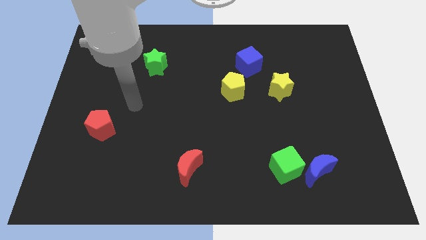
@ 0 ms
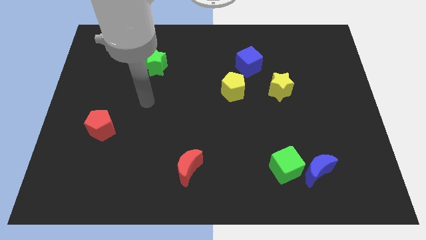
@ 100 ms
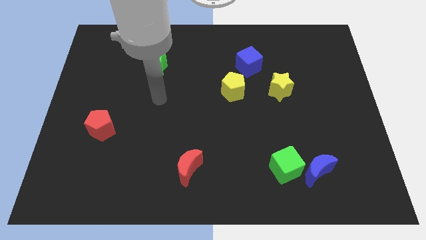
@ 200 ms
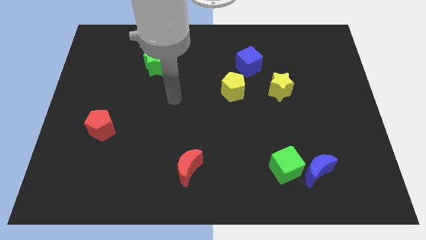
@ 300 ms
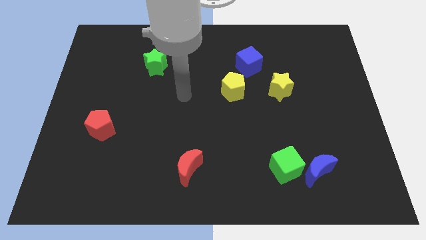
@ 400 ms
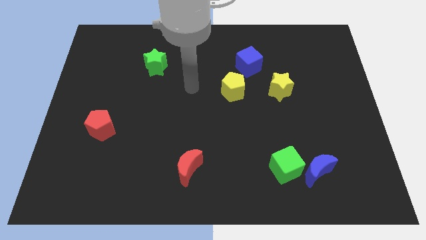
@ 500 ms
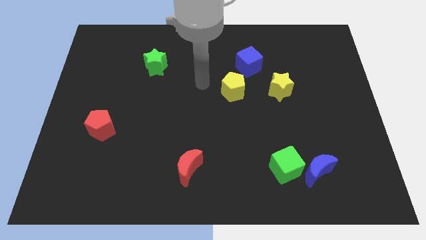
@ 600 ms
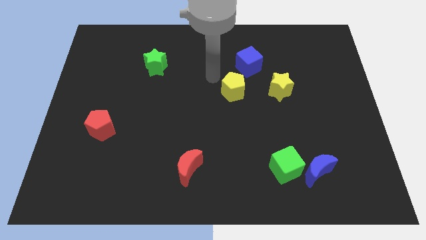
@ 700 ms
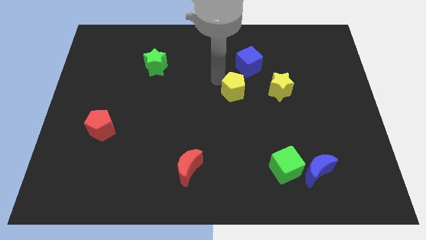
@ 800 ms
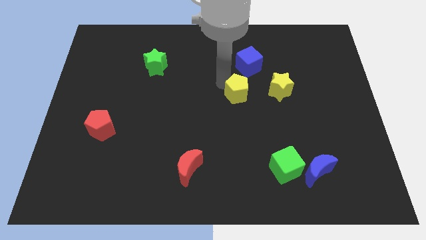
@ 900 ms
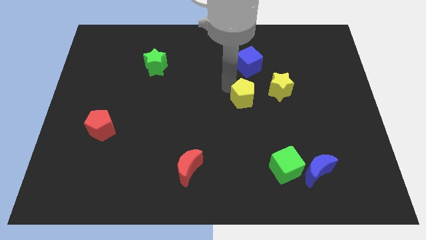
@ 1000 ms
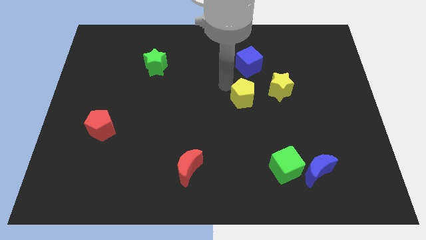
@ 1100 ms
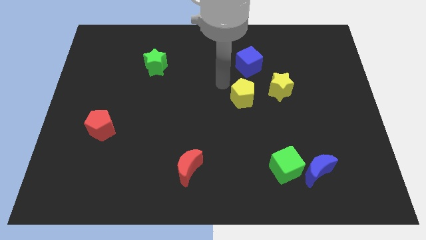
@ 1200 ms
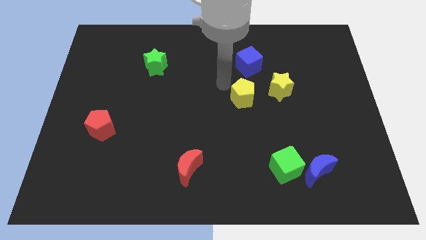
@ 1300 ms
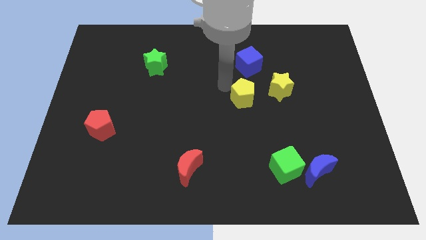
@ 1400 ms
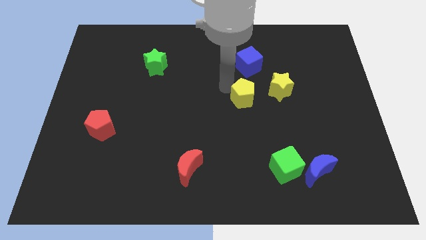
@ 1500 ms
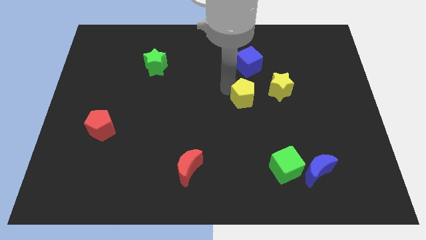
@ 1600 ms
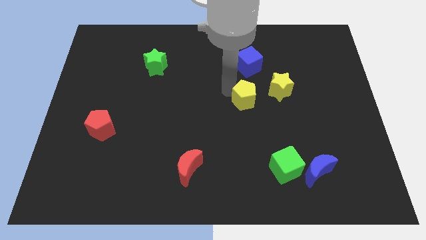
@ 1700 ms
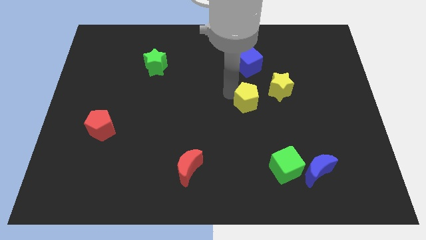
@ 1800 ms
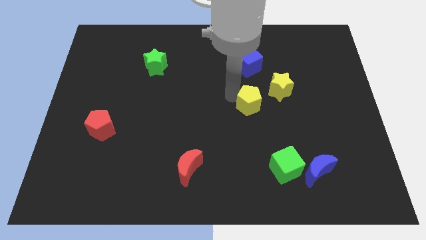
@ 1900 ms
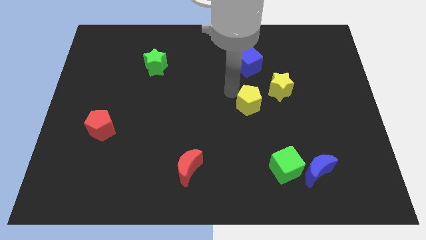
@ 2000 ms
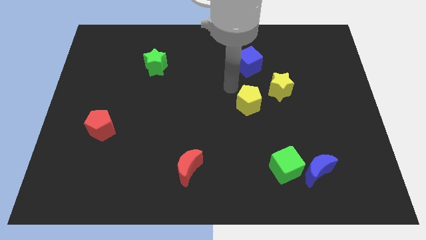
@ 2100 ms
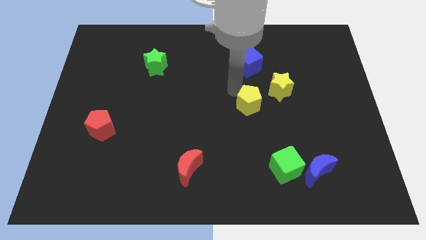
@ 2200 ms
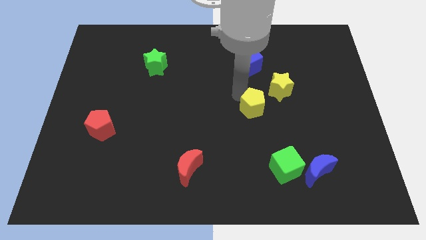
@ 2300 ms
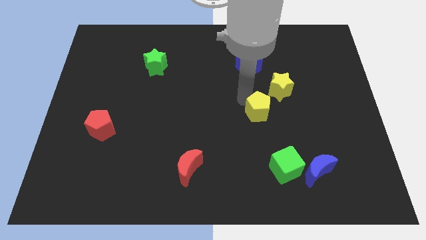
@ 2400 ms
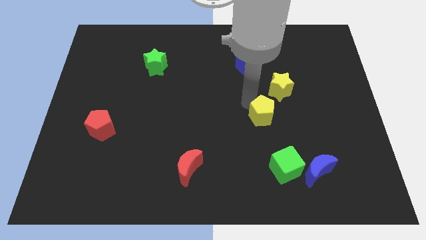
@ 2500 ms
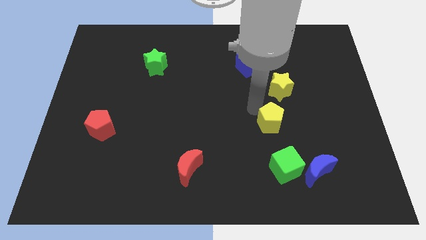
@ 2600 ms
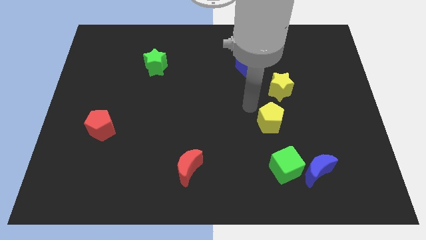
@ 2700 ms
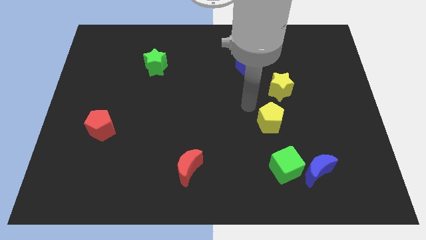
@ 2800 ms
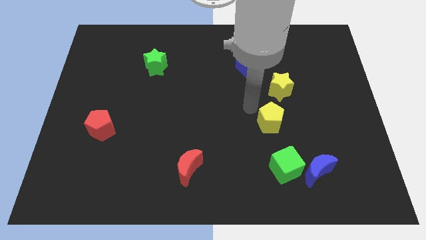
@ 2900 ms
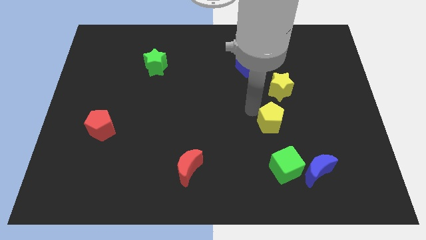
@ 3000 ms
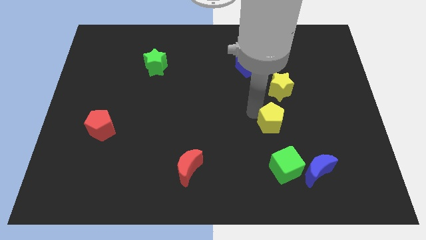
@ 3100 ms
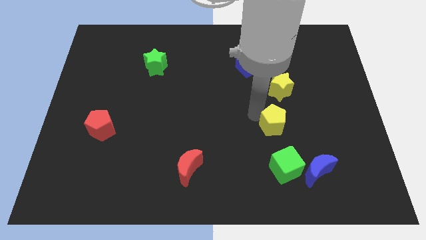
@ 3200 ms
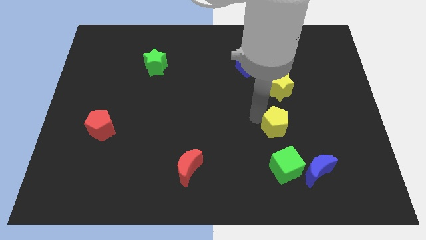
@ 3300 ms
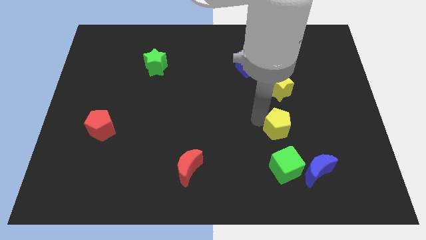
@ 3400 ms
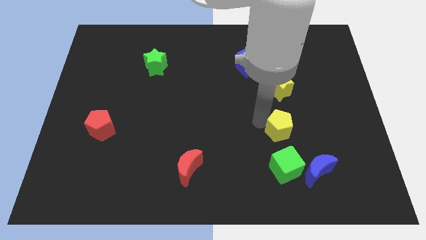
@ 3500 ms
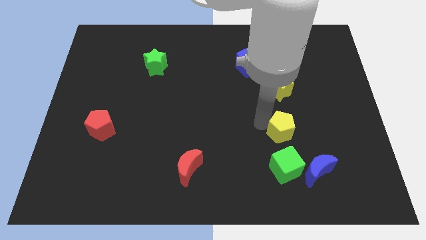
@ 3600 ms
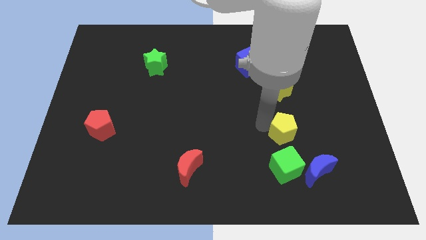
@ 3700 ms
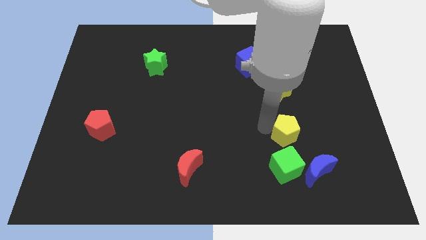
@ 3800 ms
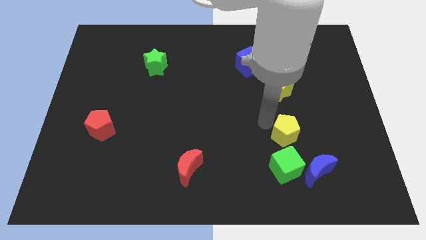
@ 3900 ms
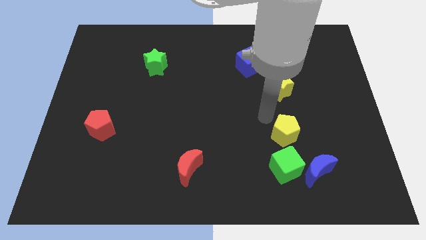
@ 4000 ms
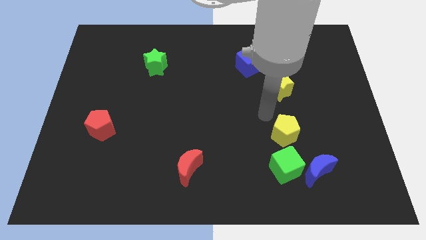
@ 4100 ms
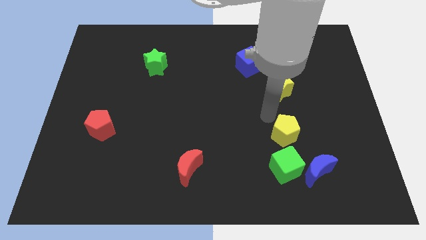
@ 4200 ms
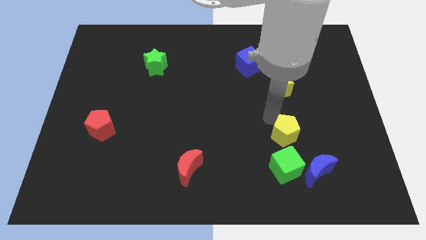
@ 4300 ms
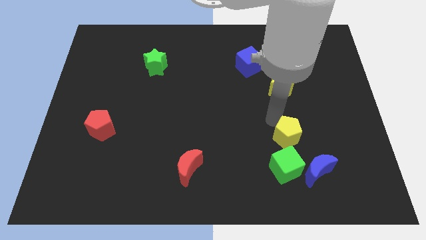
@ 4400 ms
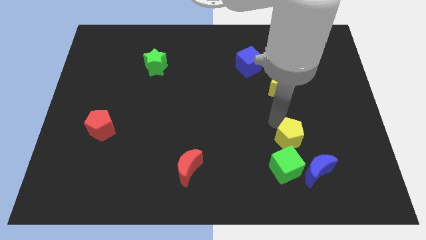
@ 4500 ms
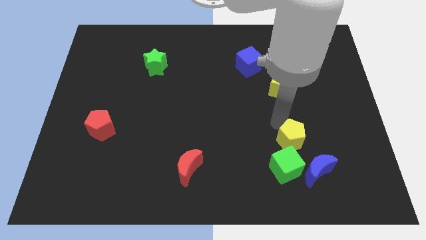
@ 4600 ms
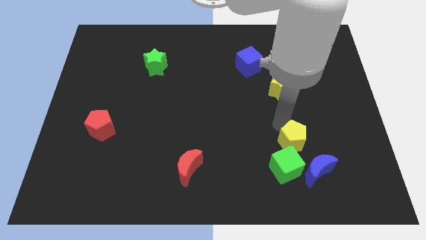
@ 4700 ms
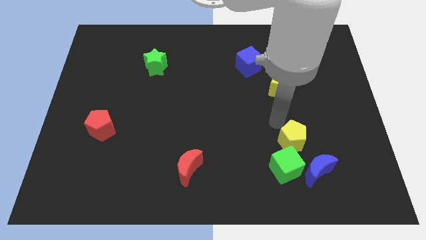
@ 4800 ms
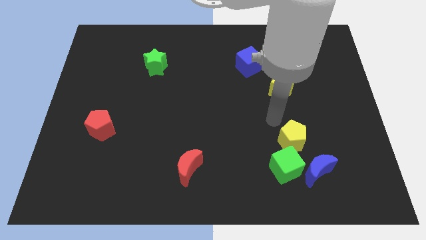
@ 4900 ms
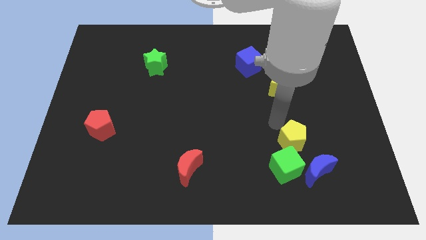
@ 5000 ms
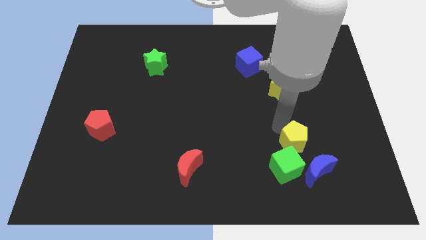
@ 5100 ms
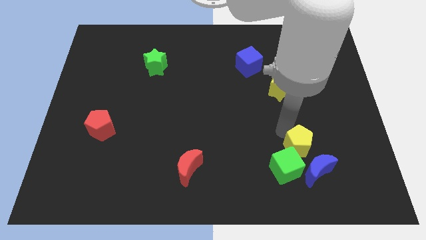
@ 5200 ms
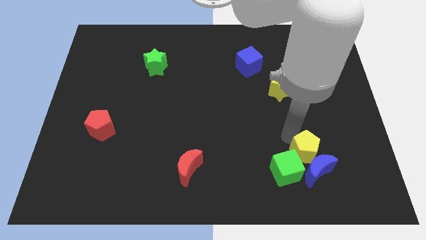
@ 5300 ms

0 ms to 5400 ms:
move the yellow pentagon to the blue moon

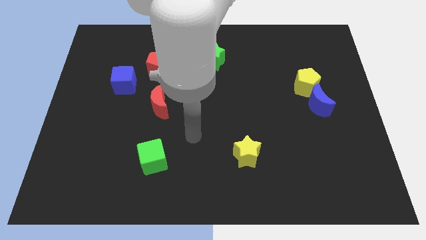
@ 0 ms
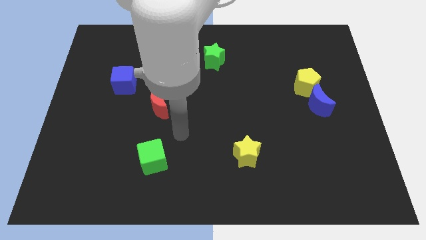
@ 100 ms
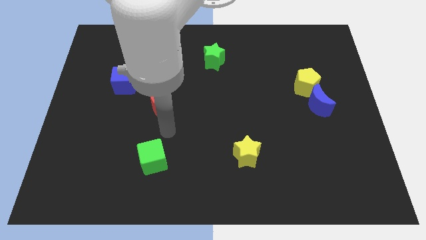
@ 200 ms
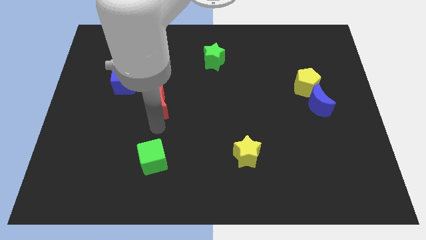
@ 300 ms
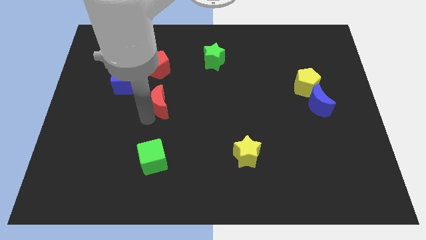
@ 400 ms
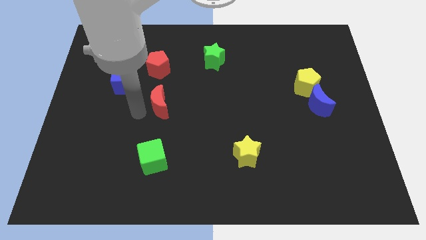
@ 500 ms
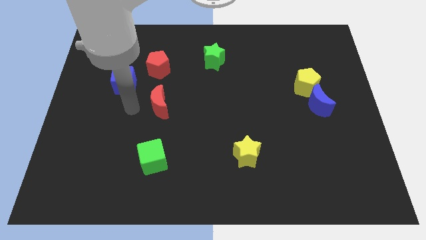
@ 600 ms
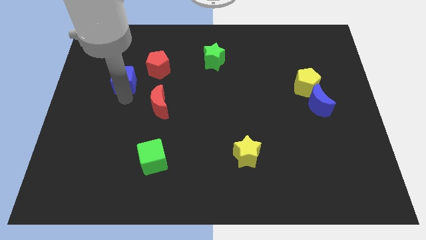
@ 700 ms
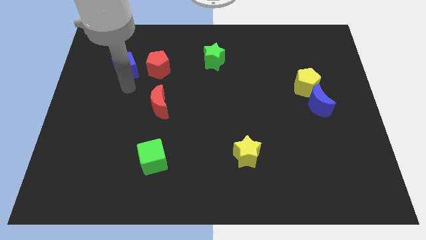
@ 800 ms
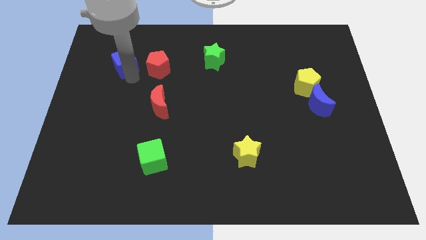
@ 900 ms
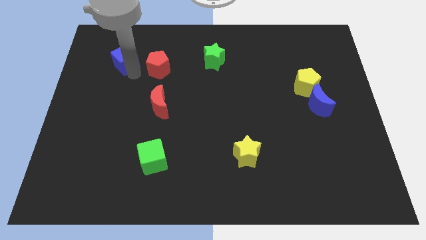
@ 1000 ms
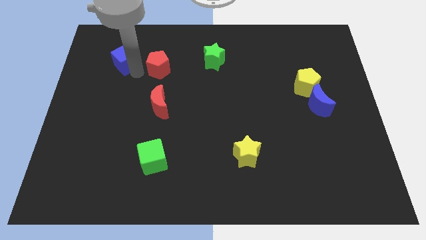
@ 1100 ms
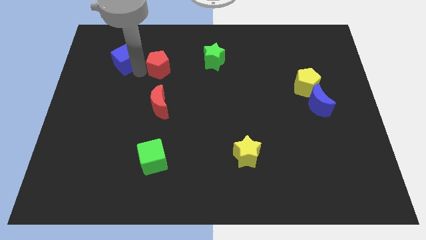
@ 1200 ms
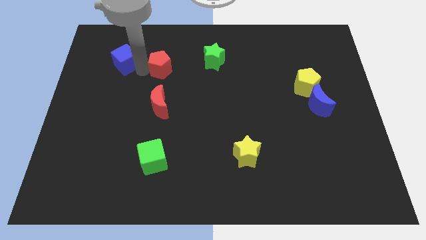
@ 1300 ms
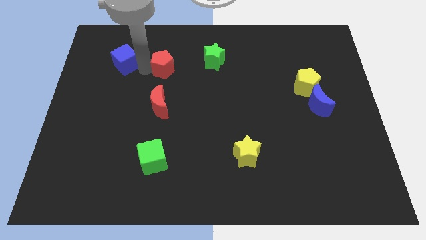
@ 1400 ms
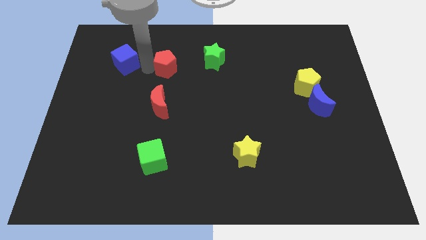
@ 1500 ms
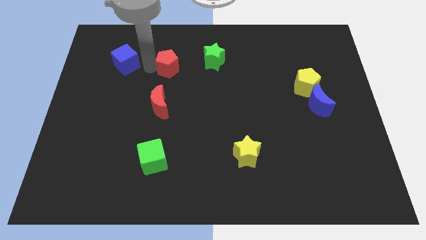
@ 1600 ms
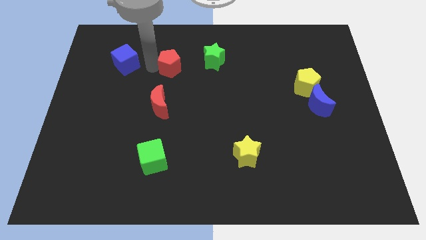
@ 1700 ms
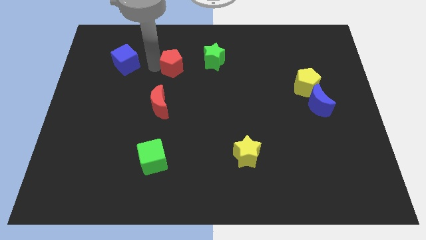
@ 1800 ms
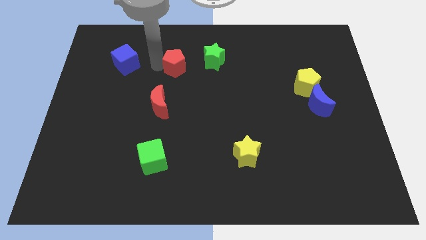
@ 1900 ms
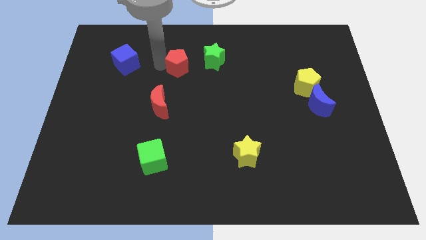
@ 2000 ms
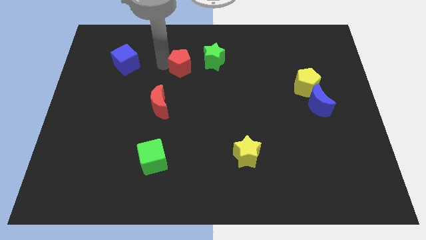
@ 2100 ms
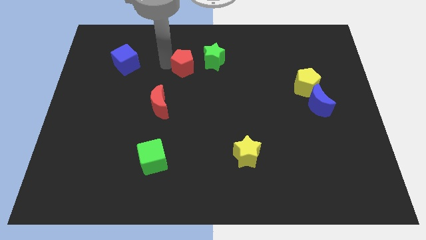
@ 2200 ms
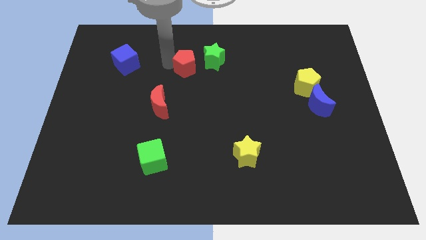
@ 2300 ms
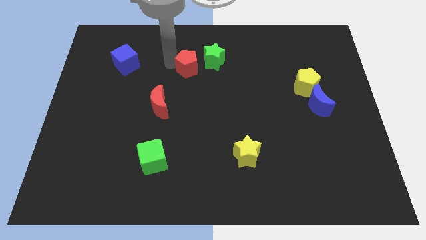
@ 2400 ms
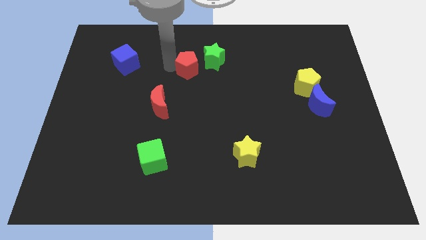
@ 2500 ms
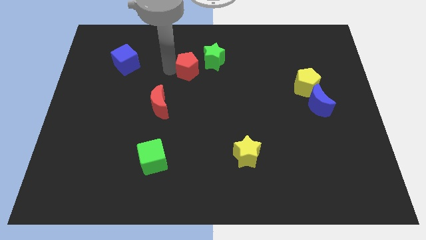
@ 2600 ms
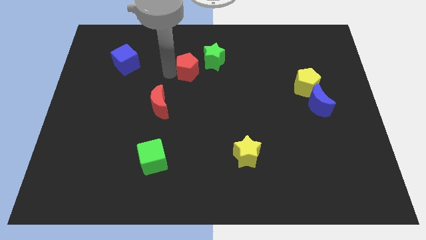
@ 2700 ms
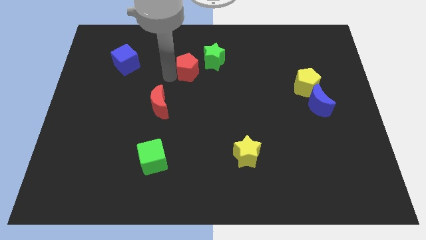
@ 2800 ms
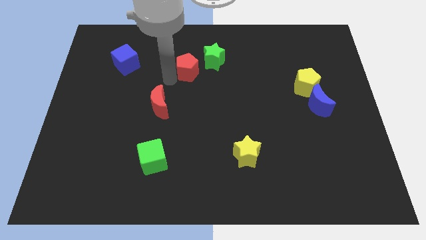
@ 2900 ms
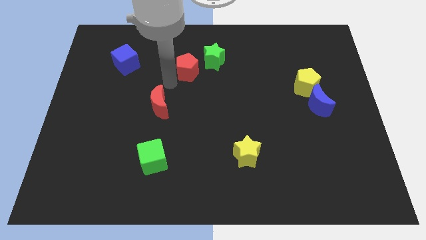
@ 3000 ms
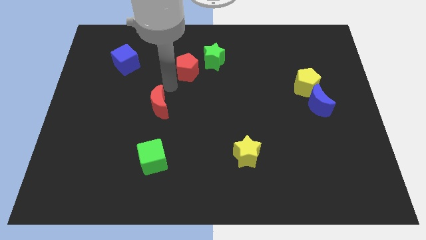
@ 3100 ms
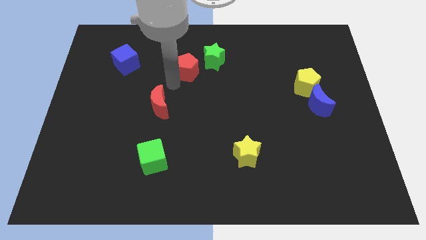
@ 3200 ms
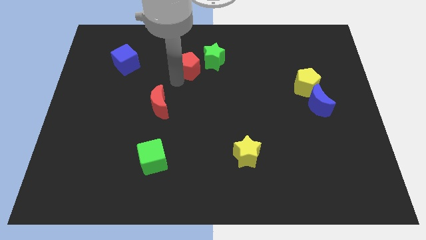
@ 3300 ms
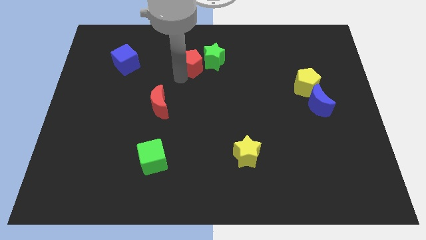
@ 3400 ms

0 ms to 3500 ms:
push the red pentagon to the green star
